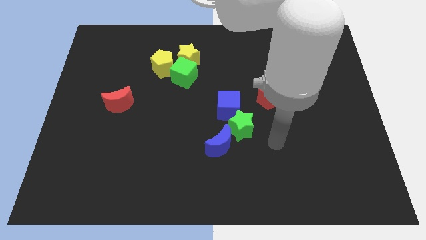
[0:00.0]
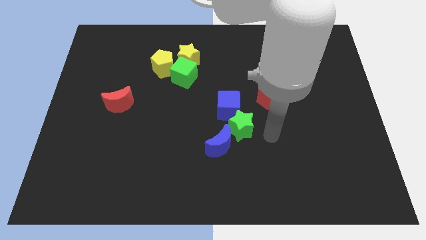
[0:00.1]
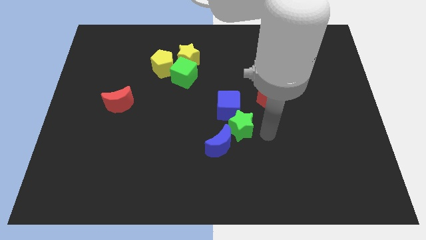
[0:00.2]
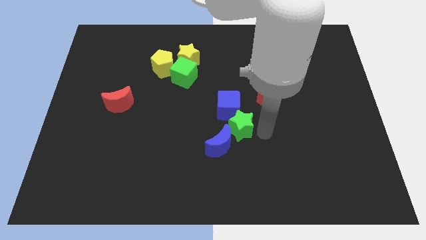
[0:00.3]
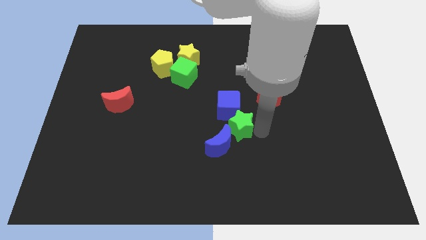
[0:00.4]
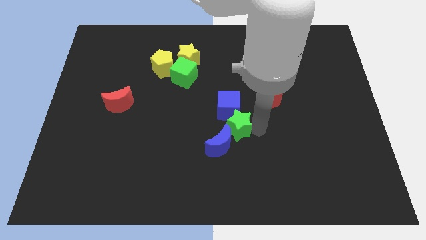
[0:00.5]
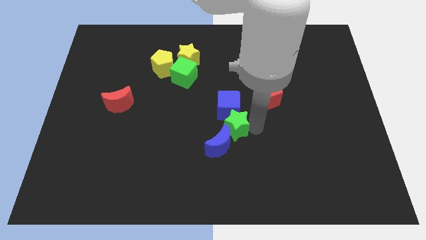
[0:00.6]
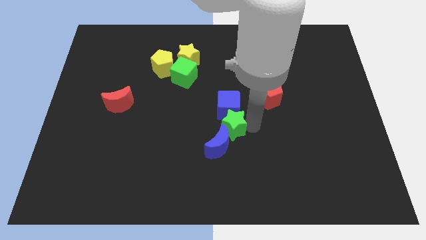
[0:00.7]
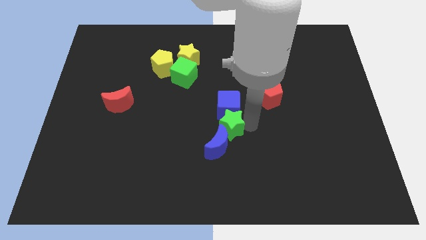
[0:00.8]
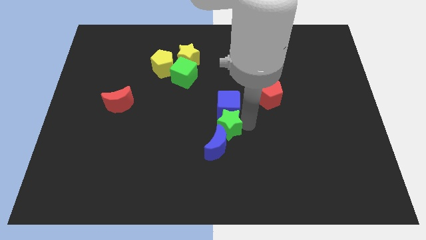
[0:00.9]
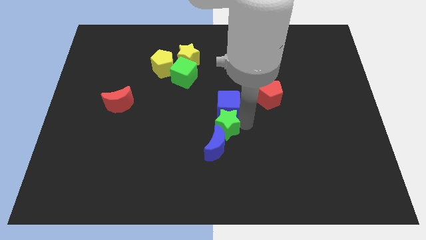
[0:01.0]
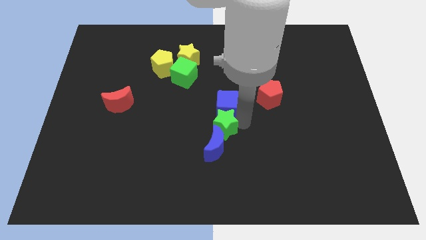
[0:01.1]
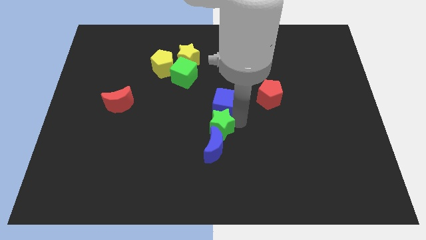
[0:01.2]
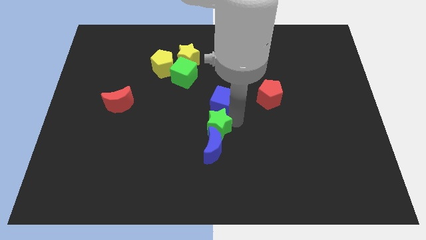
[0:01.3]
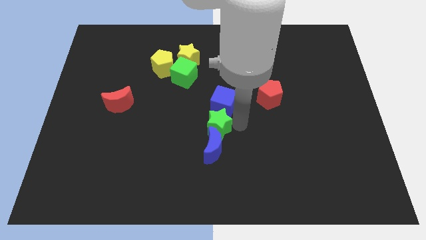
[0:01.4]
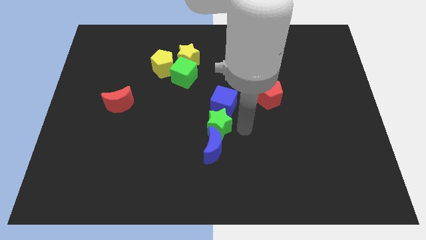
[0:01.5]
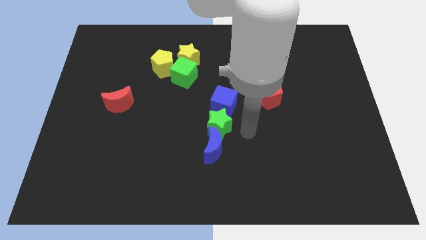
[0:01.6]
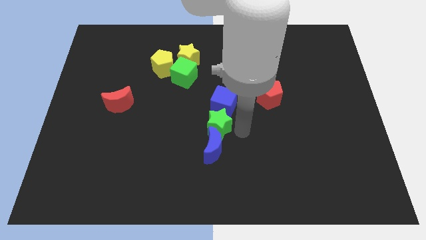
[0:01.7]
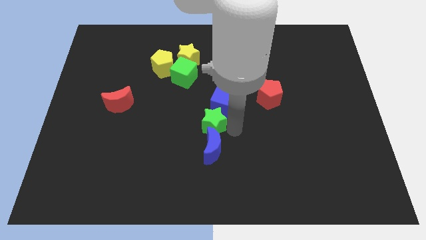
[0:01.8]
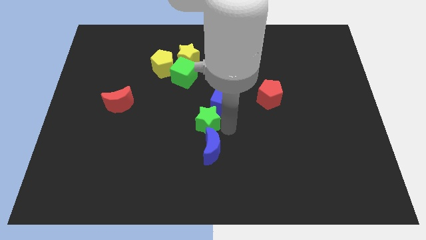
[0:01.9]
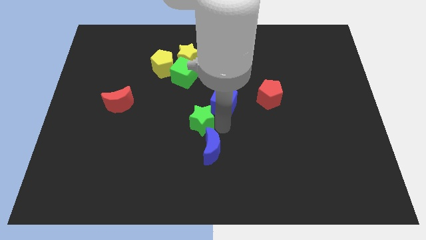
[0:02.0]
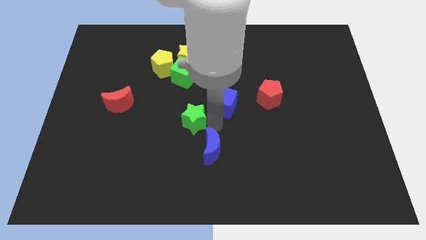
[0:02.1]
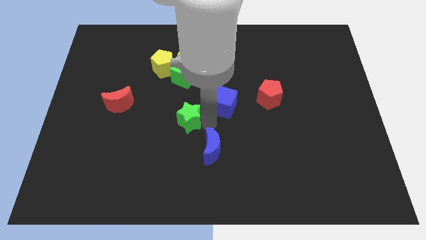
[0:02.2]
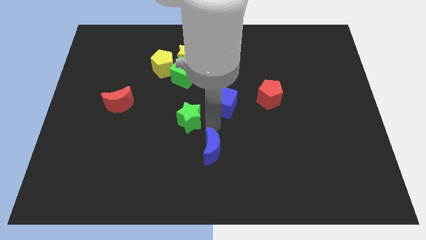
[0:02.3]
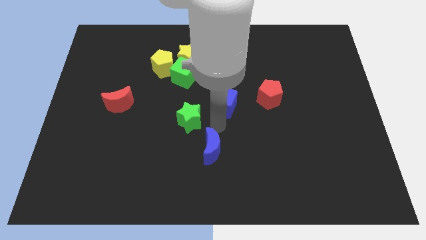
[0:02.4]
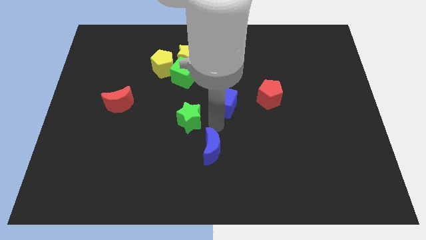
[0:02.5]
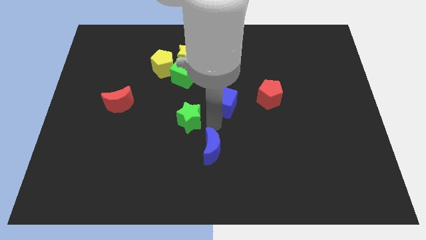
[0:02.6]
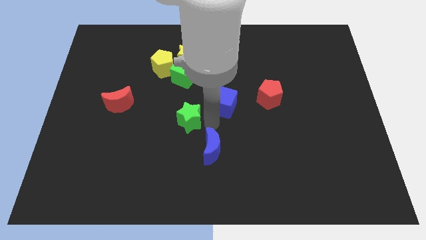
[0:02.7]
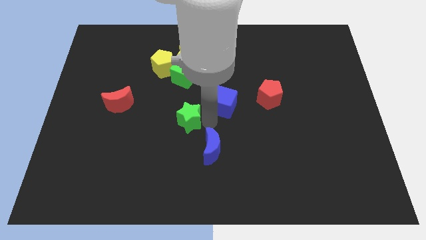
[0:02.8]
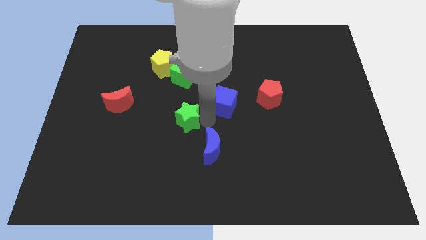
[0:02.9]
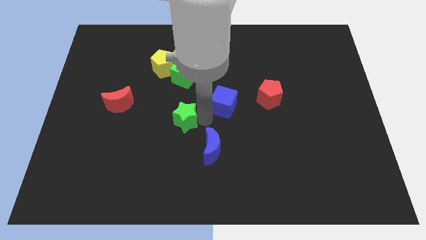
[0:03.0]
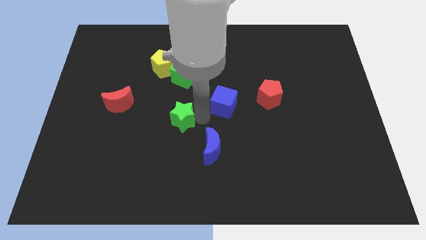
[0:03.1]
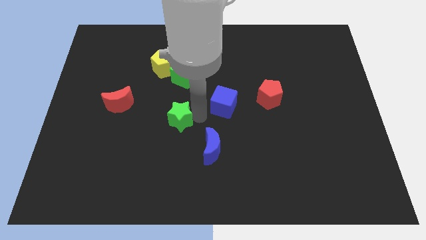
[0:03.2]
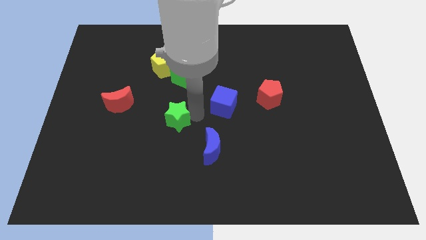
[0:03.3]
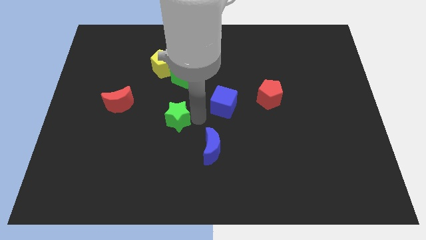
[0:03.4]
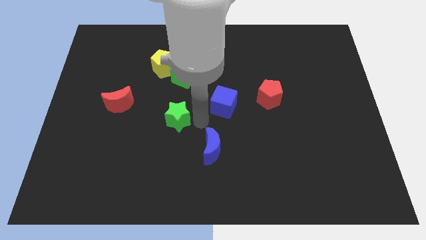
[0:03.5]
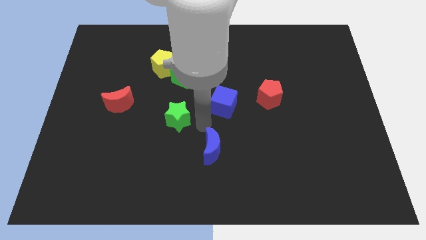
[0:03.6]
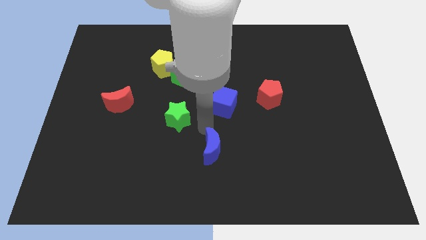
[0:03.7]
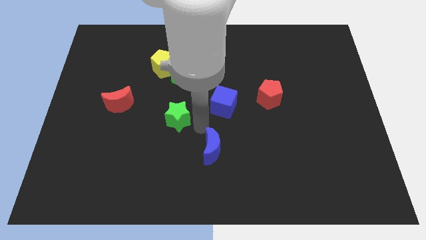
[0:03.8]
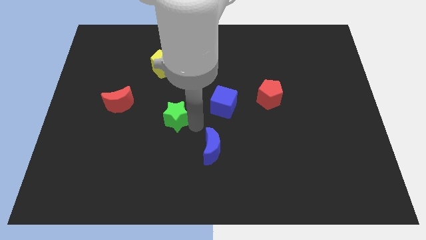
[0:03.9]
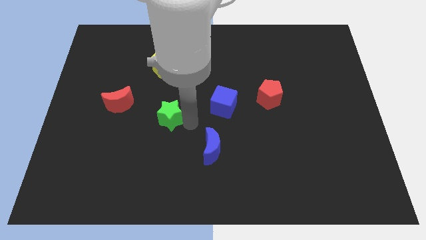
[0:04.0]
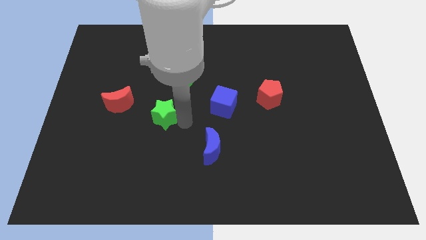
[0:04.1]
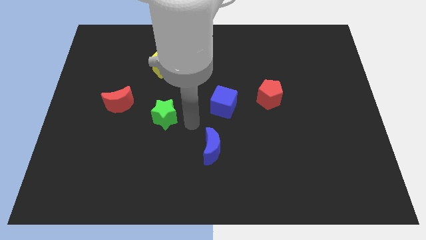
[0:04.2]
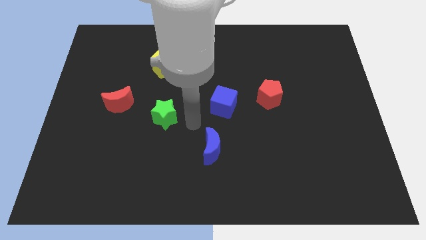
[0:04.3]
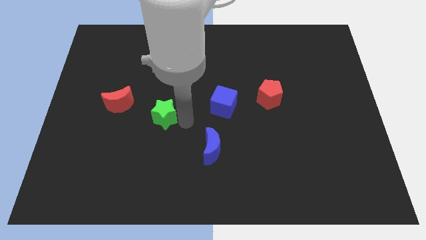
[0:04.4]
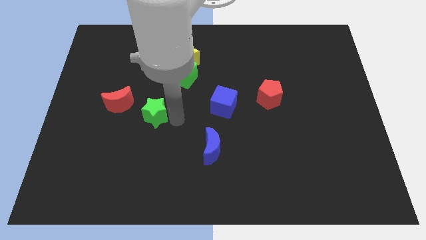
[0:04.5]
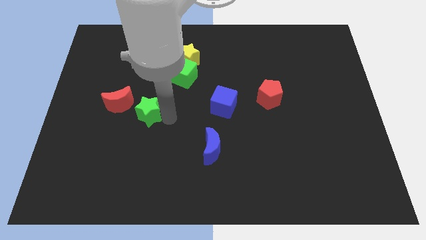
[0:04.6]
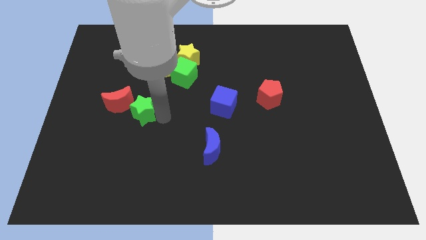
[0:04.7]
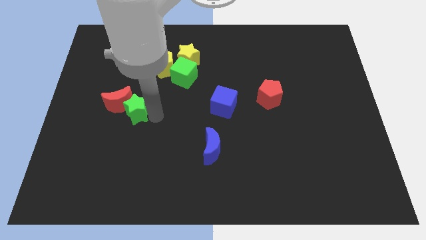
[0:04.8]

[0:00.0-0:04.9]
slide the green star close to the red moon

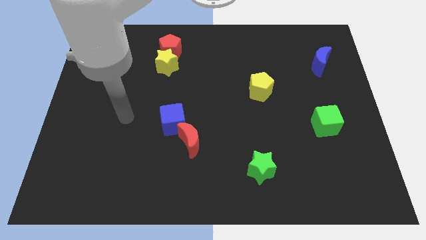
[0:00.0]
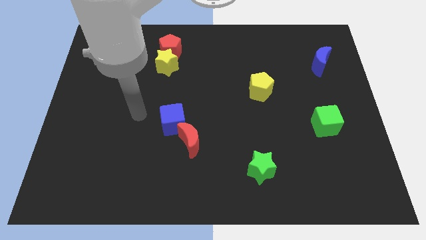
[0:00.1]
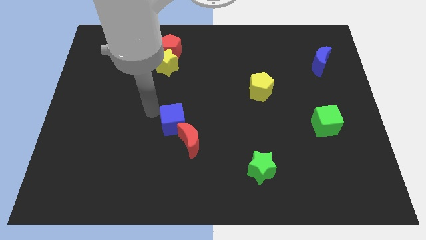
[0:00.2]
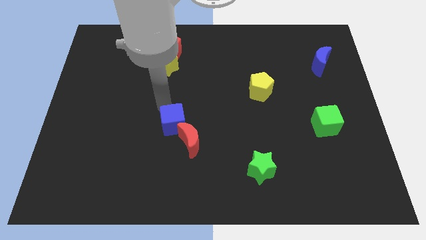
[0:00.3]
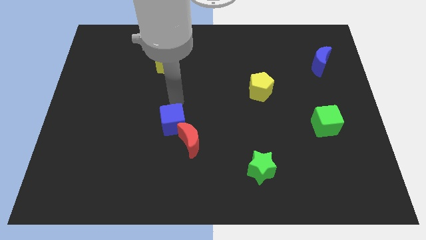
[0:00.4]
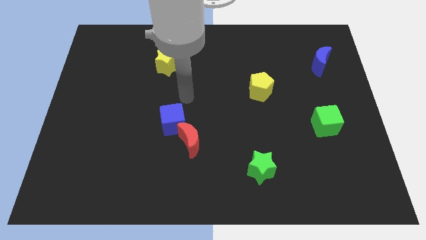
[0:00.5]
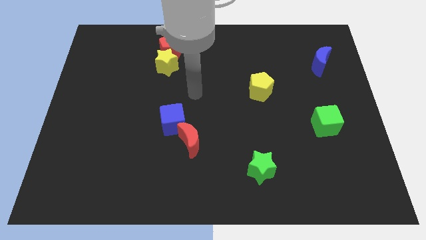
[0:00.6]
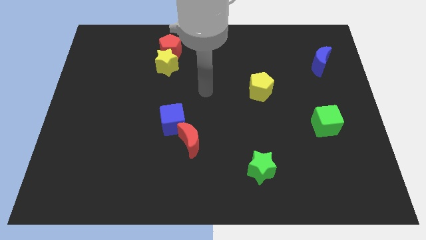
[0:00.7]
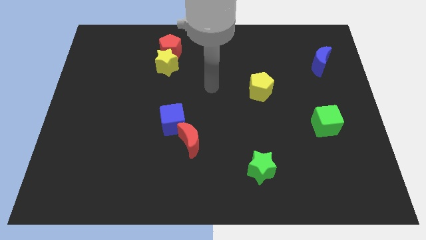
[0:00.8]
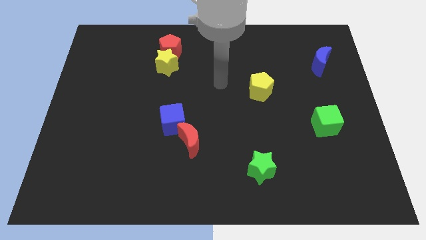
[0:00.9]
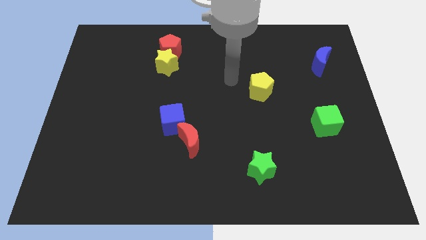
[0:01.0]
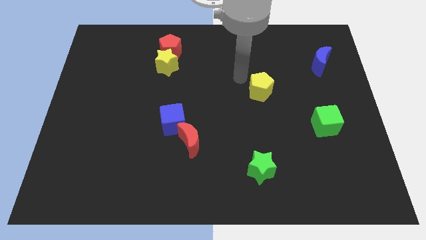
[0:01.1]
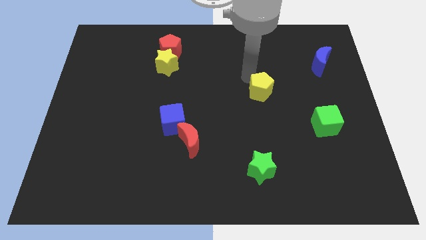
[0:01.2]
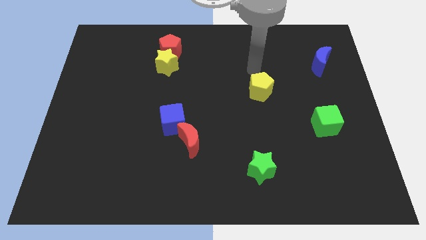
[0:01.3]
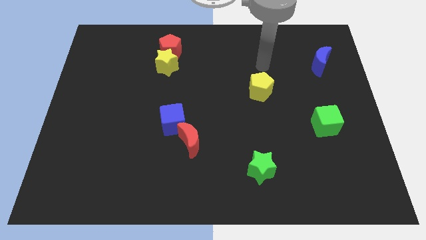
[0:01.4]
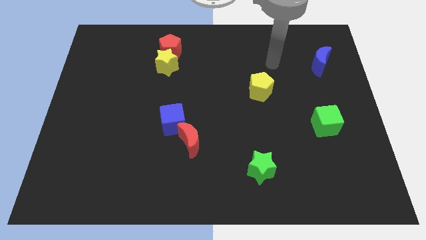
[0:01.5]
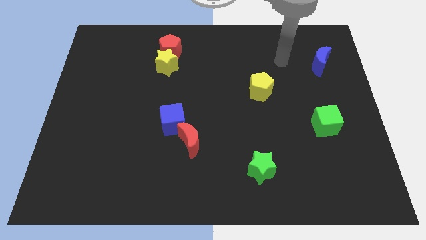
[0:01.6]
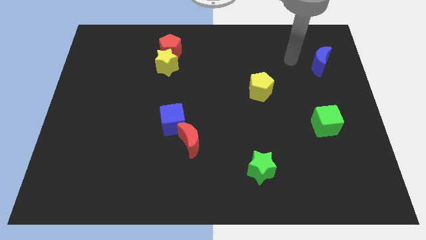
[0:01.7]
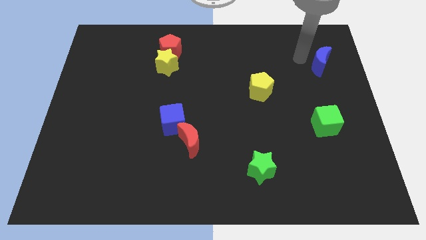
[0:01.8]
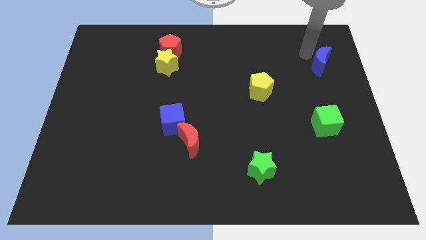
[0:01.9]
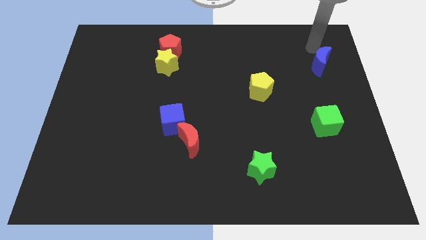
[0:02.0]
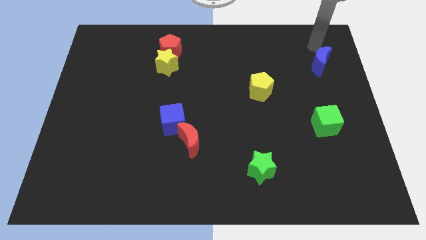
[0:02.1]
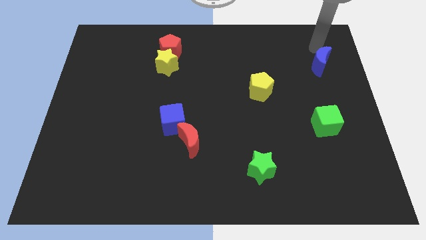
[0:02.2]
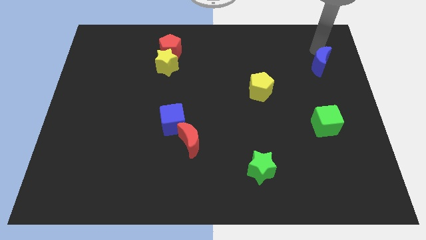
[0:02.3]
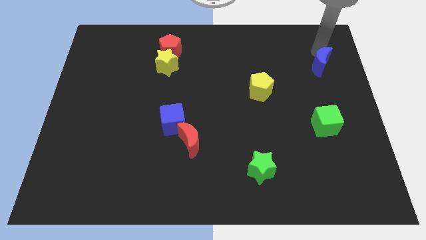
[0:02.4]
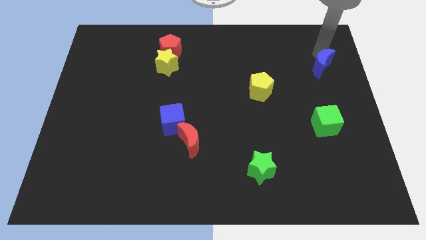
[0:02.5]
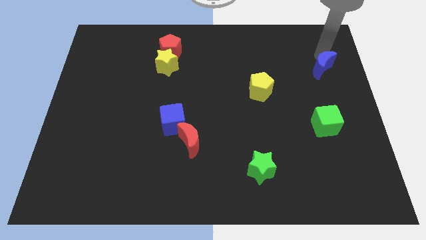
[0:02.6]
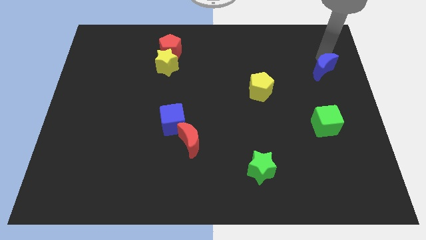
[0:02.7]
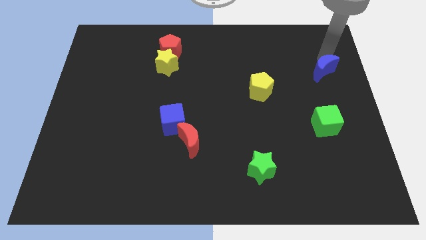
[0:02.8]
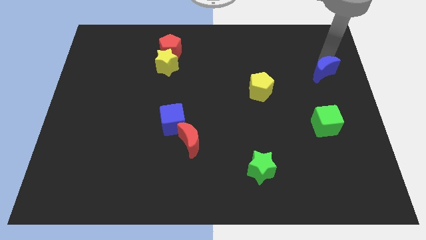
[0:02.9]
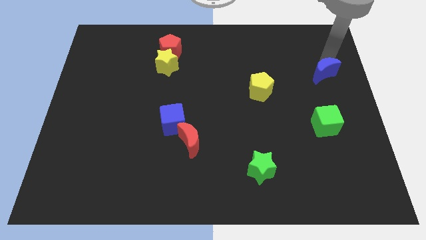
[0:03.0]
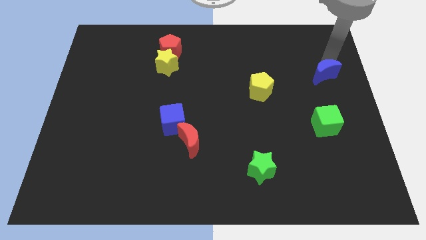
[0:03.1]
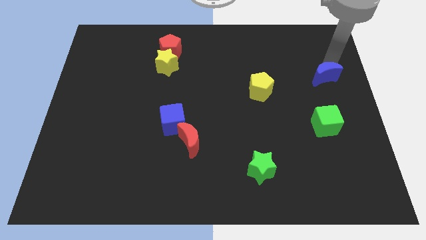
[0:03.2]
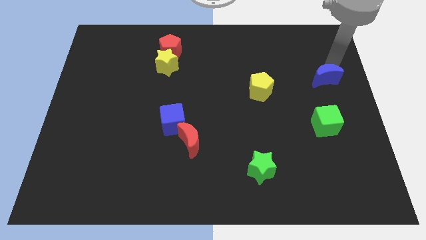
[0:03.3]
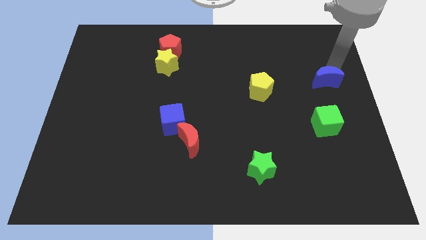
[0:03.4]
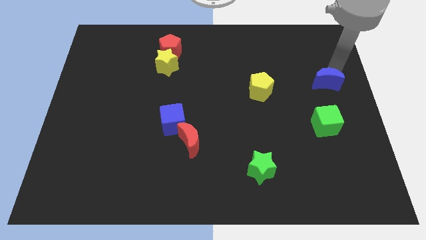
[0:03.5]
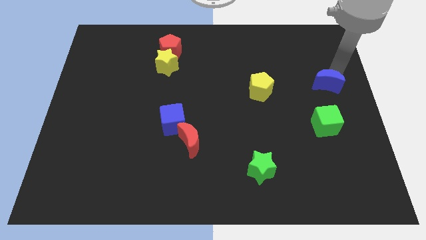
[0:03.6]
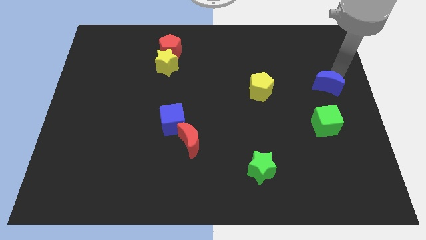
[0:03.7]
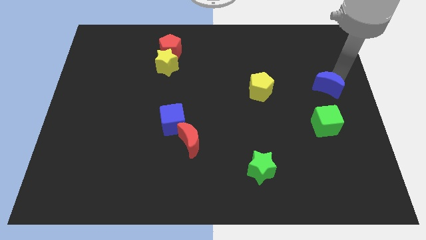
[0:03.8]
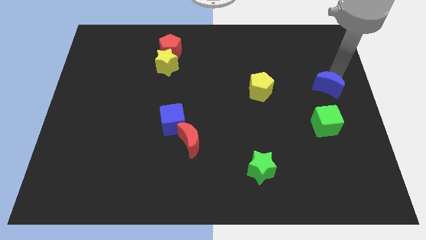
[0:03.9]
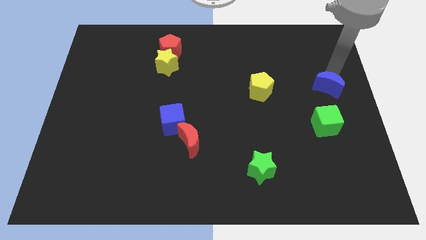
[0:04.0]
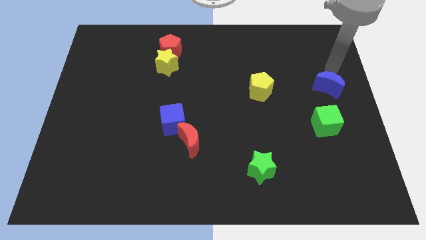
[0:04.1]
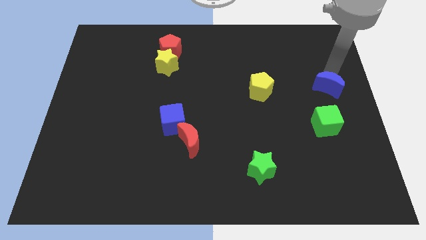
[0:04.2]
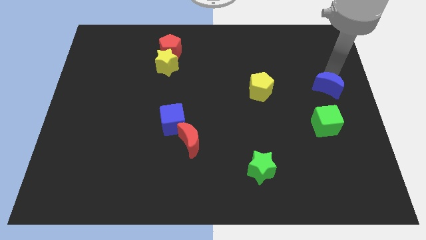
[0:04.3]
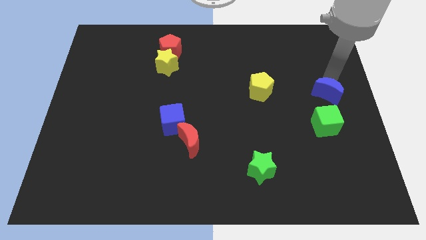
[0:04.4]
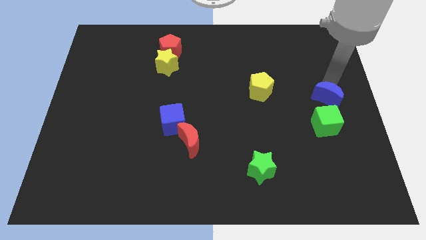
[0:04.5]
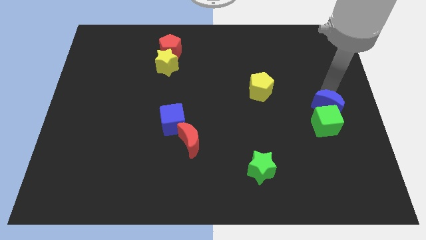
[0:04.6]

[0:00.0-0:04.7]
push the blue moon close to the green cube
